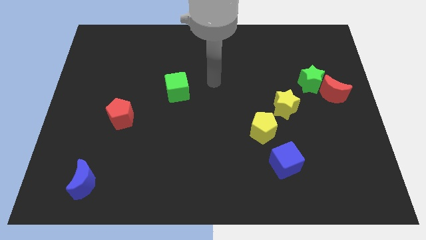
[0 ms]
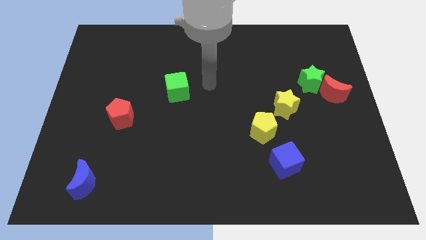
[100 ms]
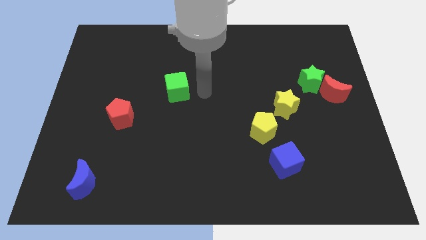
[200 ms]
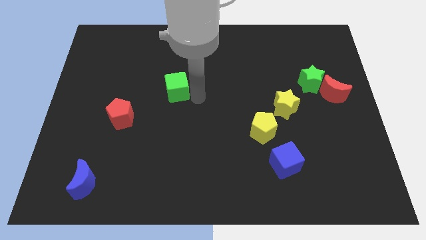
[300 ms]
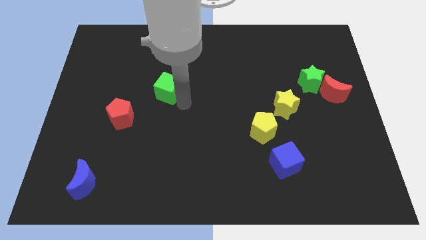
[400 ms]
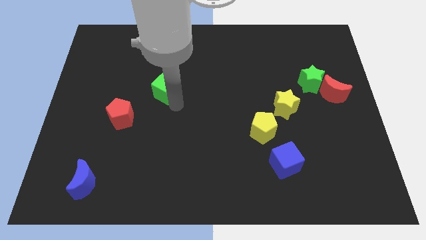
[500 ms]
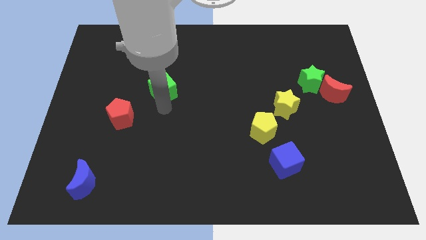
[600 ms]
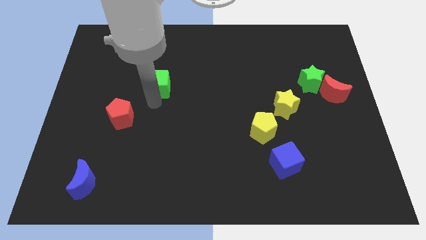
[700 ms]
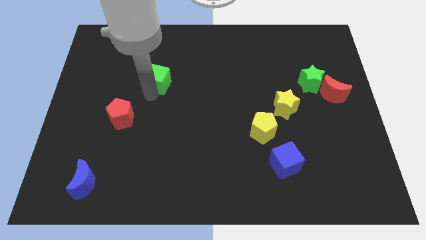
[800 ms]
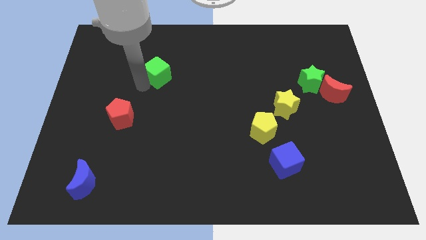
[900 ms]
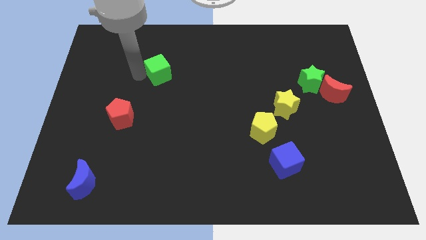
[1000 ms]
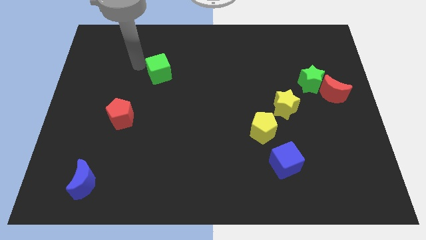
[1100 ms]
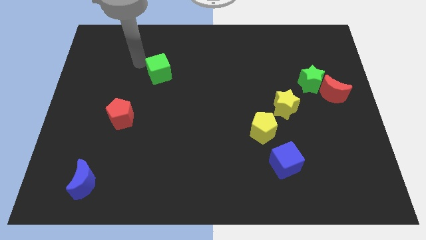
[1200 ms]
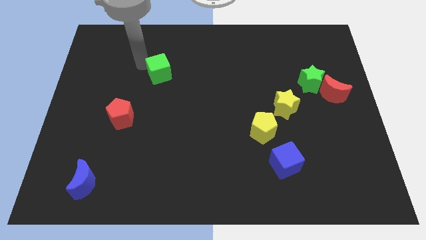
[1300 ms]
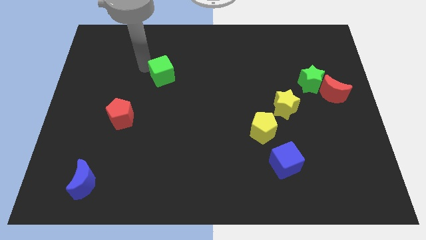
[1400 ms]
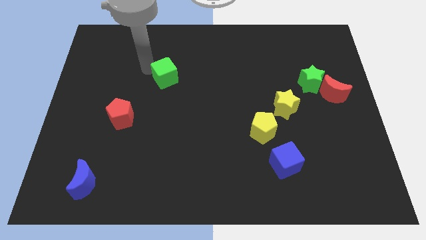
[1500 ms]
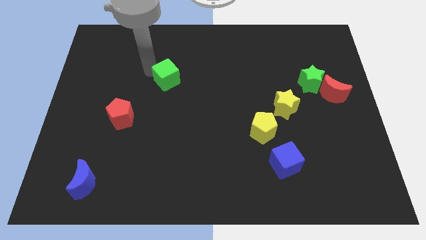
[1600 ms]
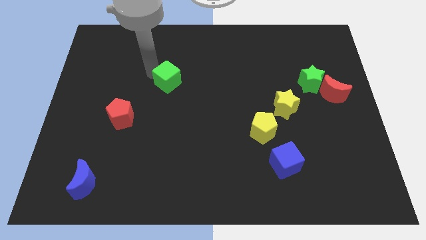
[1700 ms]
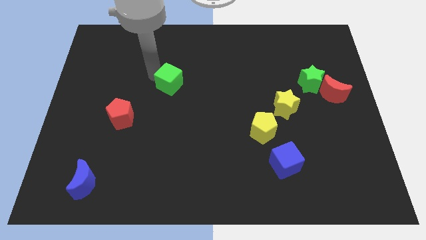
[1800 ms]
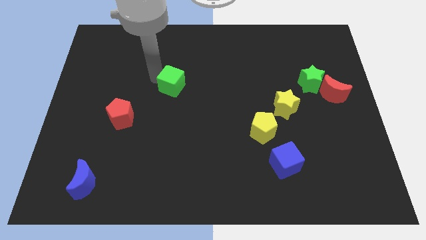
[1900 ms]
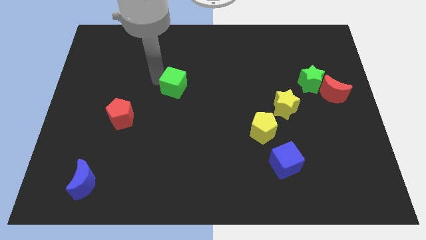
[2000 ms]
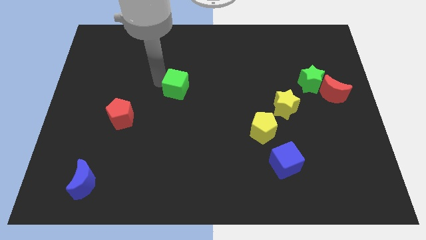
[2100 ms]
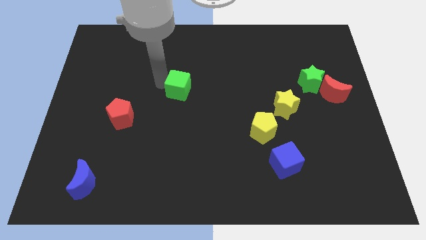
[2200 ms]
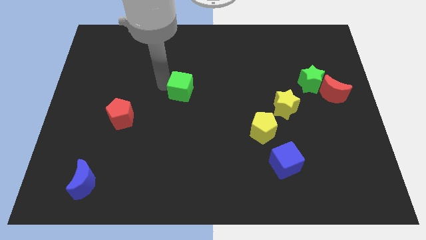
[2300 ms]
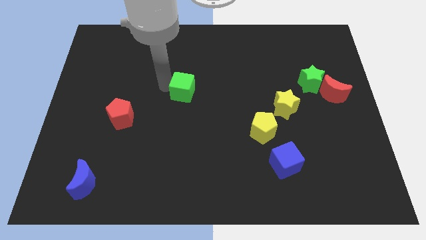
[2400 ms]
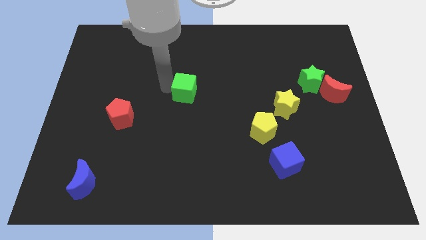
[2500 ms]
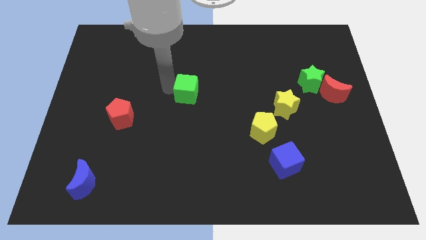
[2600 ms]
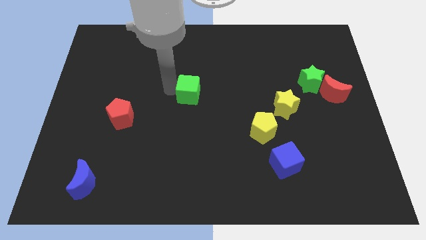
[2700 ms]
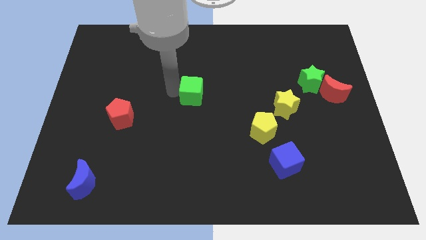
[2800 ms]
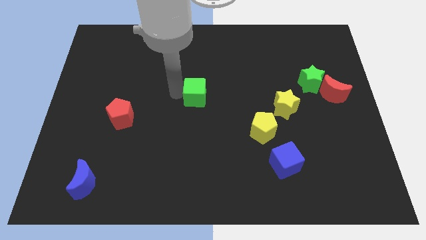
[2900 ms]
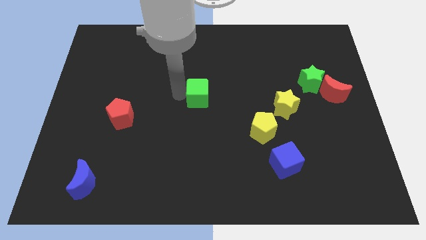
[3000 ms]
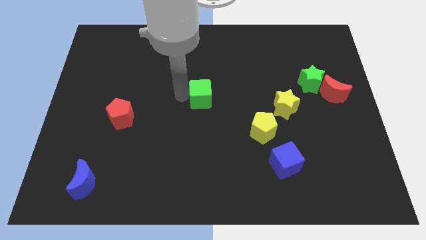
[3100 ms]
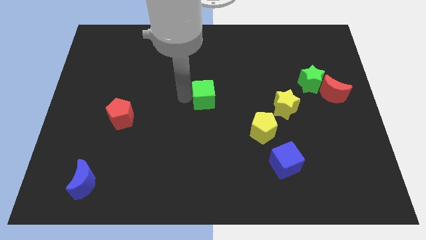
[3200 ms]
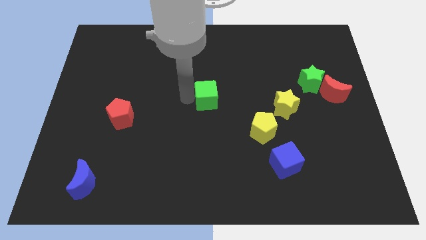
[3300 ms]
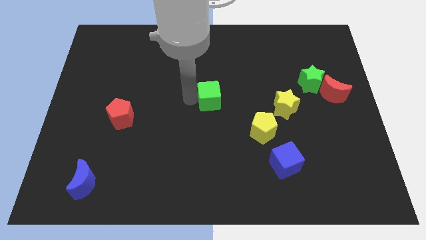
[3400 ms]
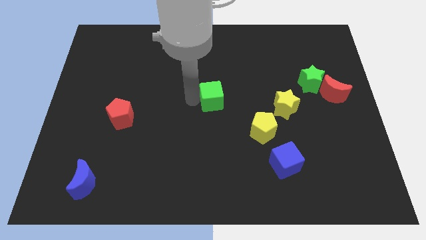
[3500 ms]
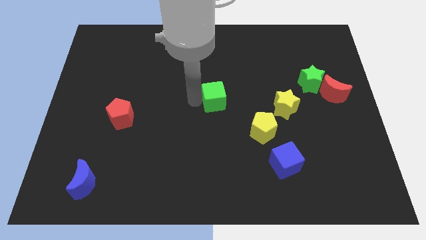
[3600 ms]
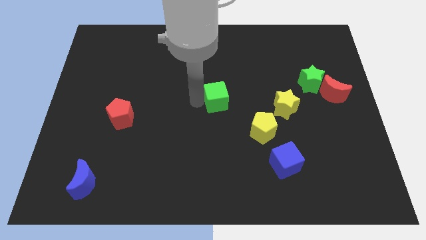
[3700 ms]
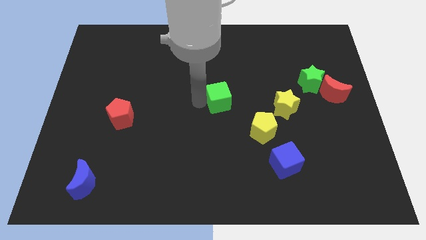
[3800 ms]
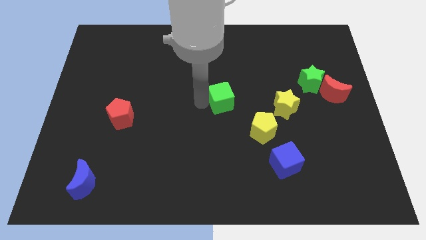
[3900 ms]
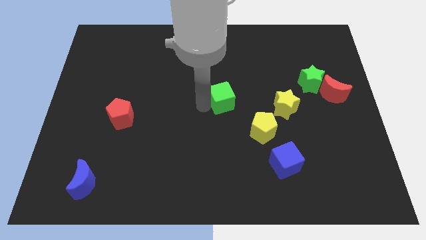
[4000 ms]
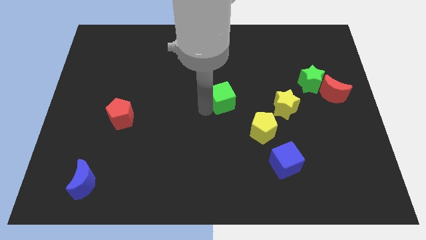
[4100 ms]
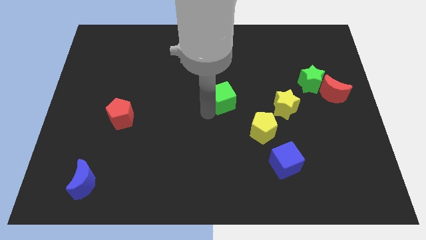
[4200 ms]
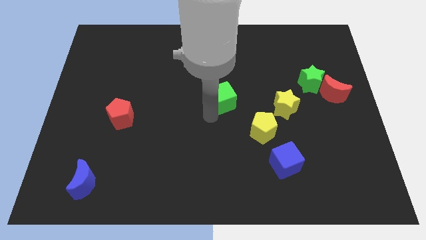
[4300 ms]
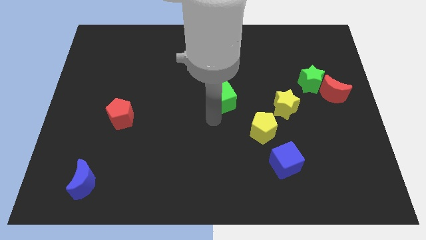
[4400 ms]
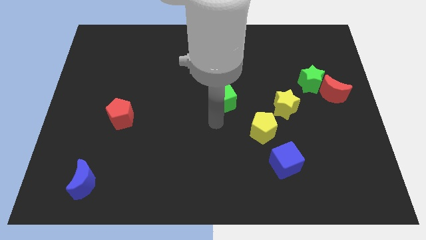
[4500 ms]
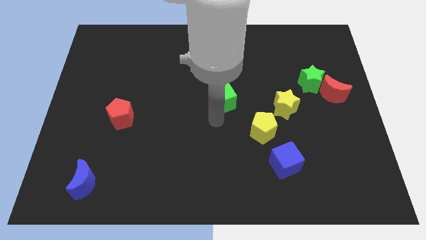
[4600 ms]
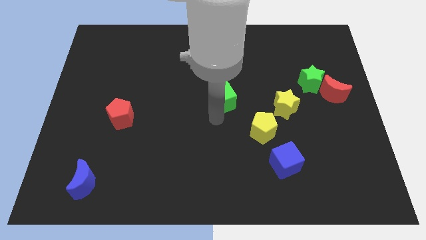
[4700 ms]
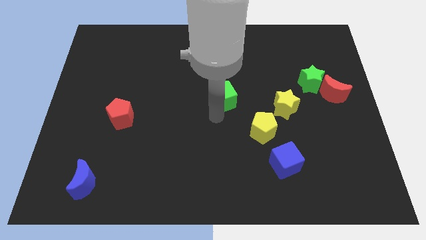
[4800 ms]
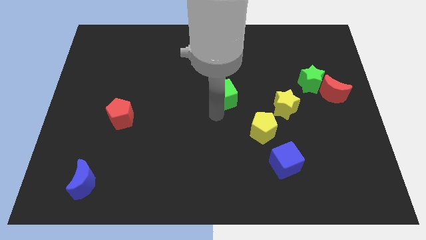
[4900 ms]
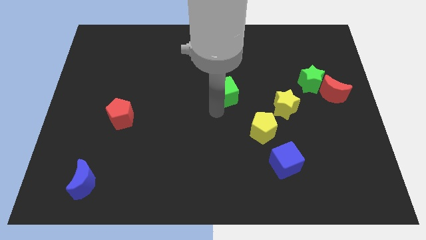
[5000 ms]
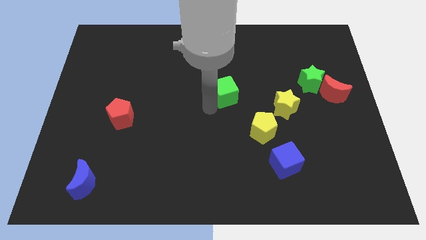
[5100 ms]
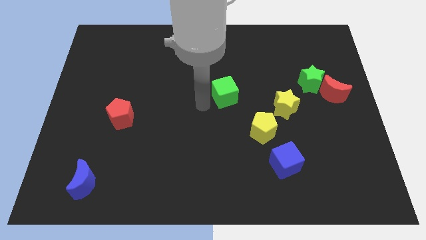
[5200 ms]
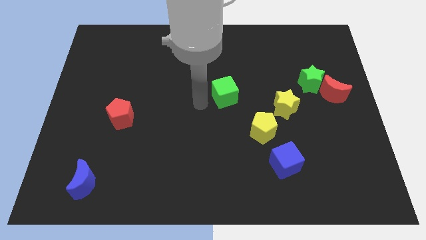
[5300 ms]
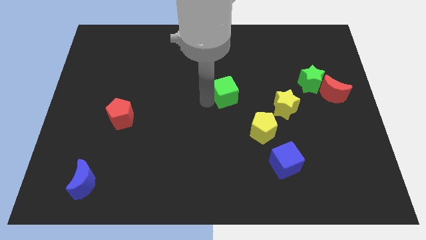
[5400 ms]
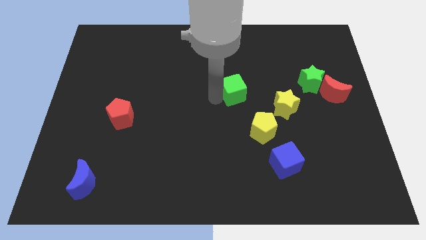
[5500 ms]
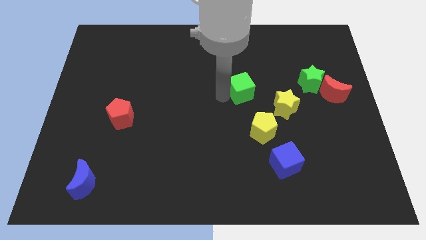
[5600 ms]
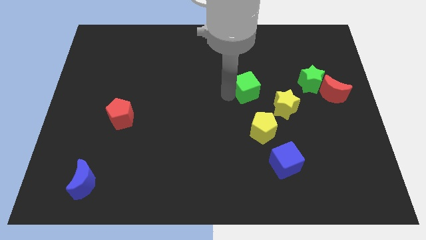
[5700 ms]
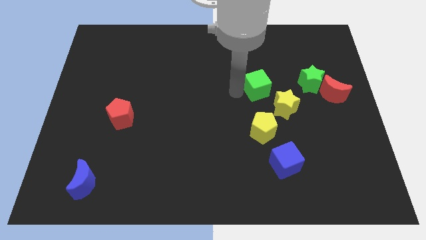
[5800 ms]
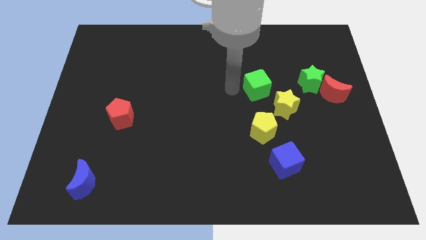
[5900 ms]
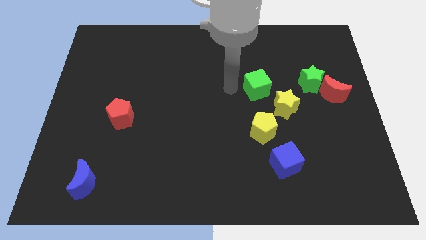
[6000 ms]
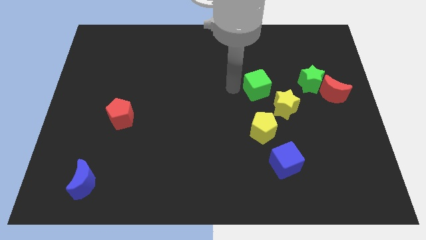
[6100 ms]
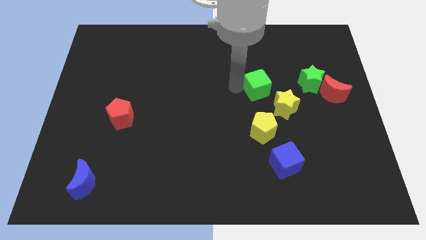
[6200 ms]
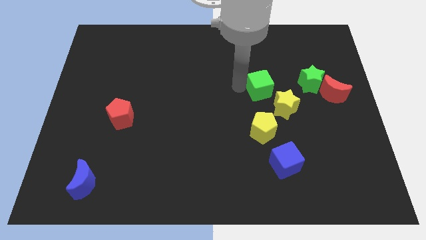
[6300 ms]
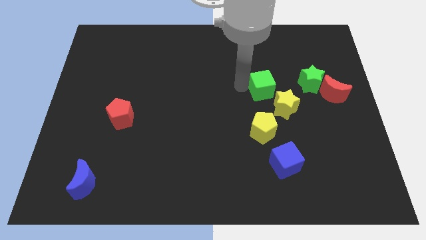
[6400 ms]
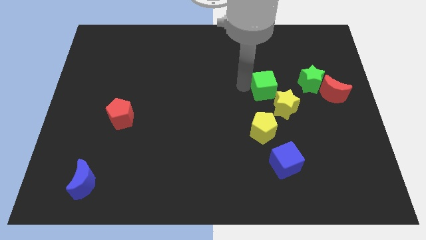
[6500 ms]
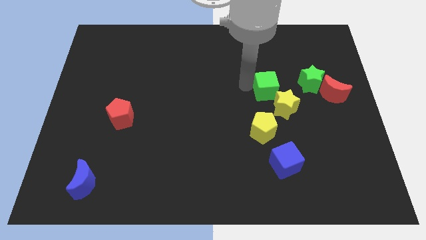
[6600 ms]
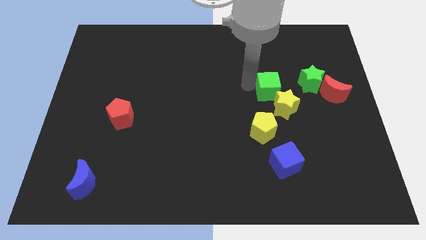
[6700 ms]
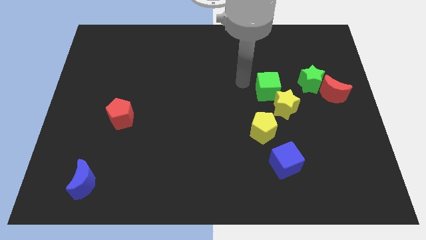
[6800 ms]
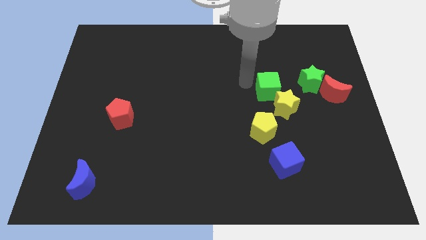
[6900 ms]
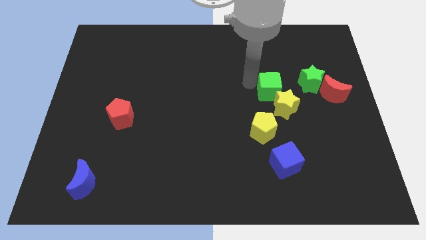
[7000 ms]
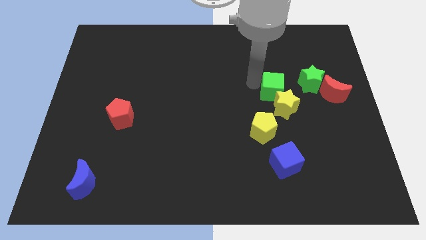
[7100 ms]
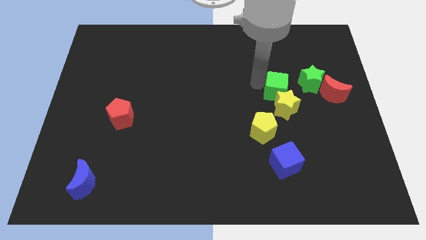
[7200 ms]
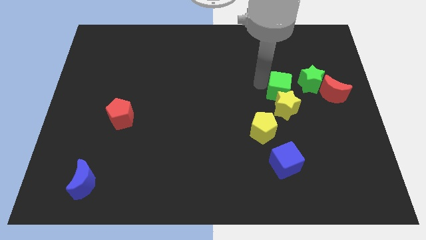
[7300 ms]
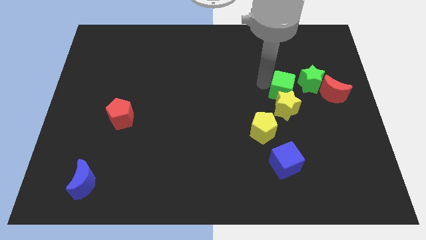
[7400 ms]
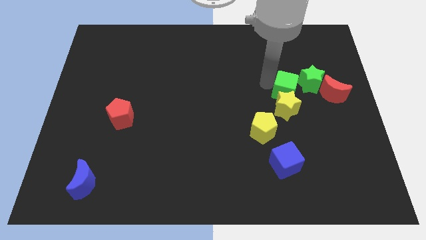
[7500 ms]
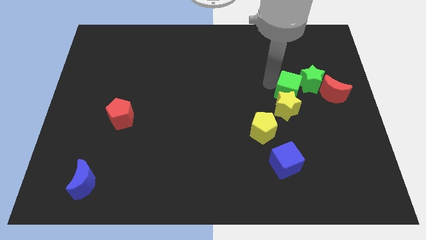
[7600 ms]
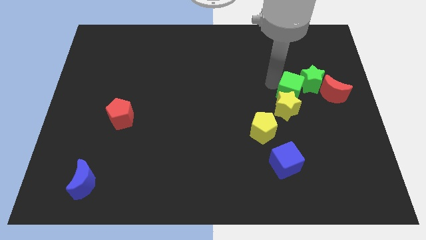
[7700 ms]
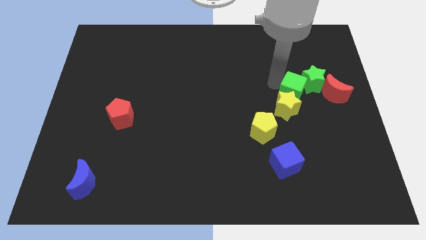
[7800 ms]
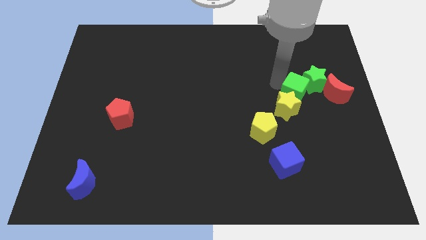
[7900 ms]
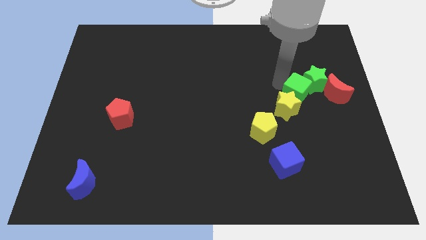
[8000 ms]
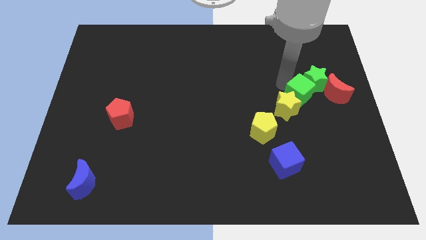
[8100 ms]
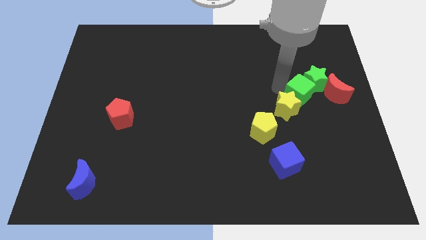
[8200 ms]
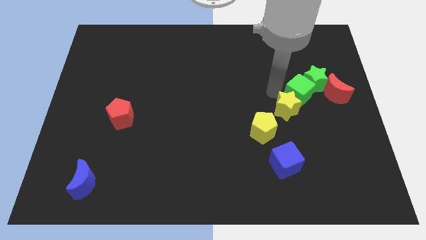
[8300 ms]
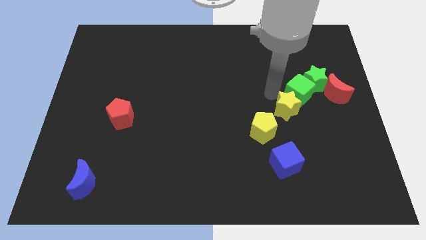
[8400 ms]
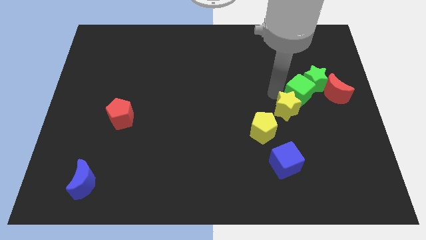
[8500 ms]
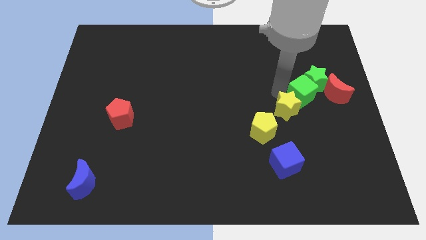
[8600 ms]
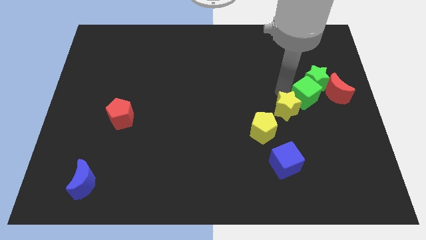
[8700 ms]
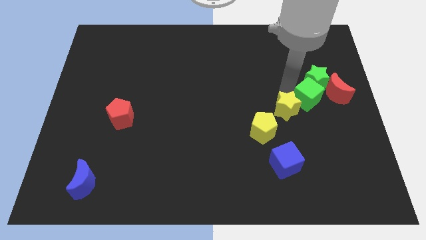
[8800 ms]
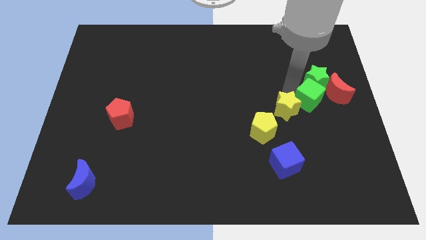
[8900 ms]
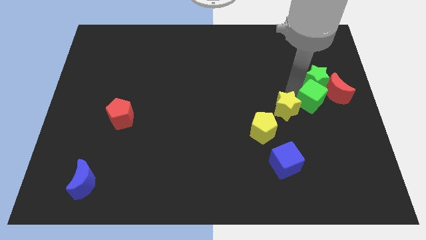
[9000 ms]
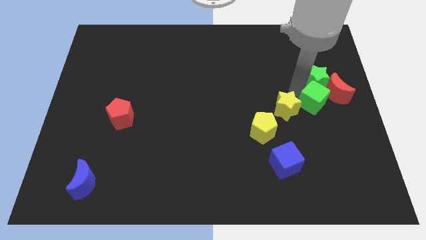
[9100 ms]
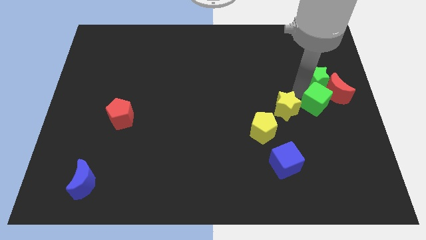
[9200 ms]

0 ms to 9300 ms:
push the green cube to the red moon
